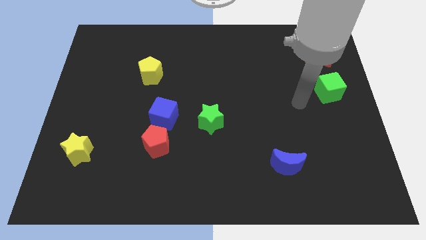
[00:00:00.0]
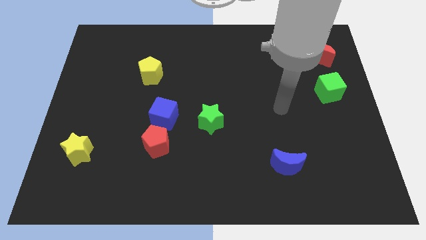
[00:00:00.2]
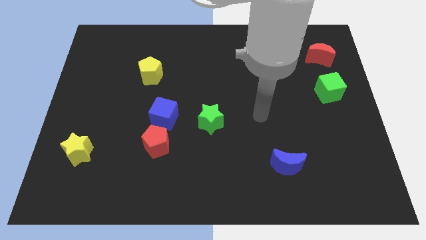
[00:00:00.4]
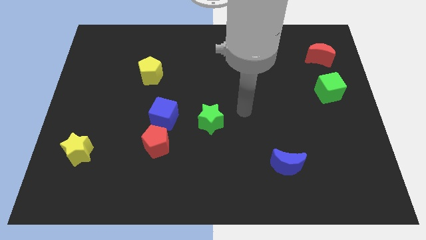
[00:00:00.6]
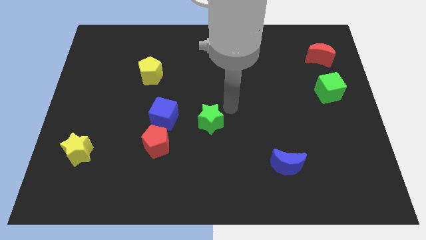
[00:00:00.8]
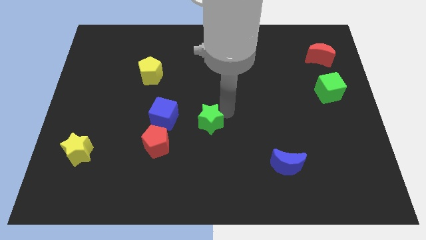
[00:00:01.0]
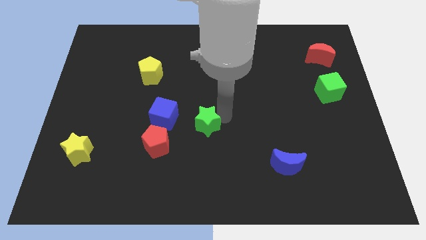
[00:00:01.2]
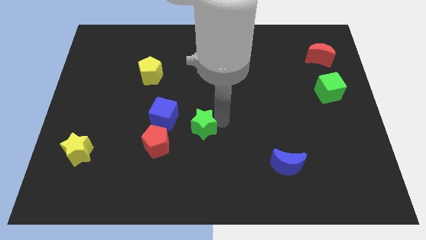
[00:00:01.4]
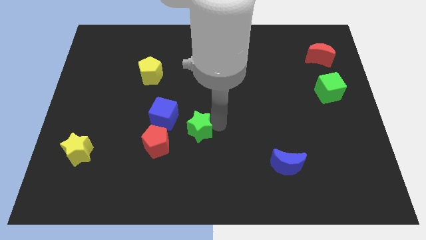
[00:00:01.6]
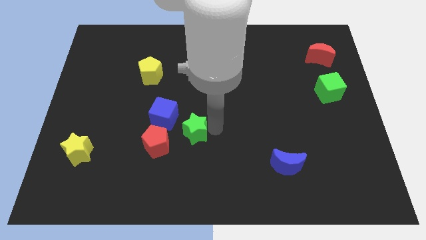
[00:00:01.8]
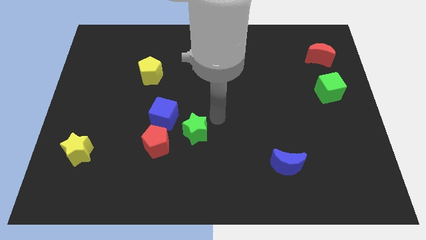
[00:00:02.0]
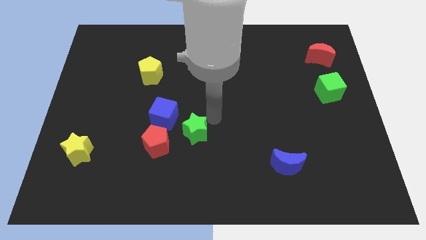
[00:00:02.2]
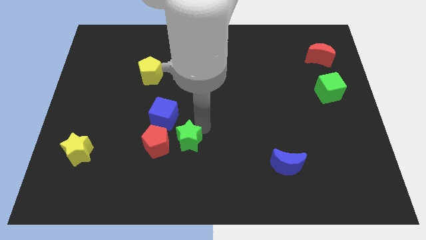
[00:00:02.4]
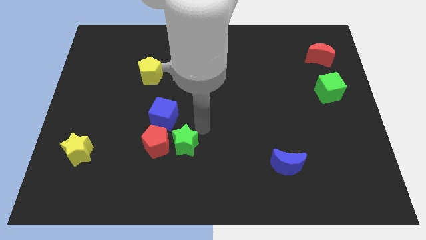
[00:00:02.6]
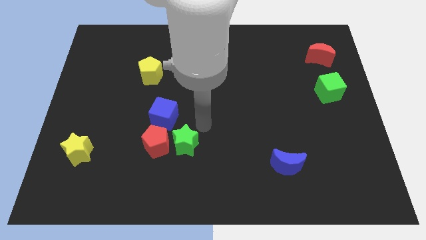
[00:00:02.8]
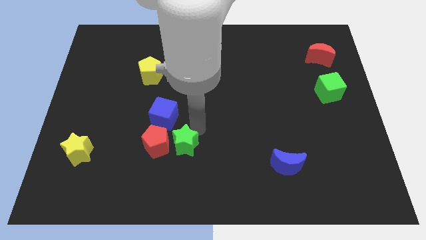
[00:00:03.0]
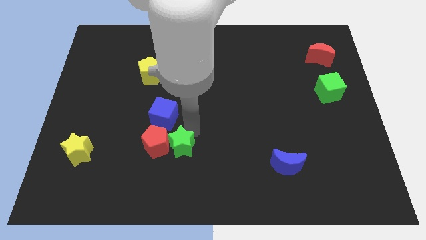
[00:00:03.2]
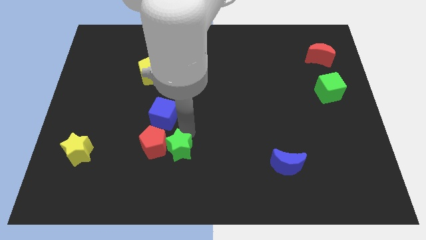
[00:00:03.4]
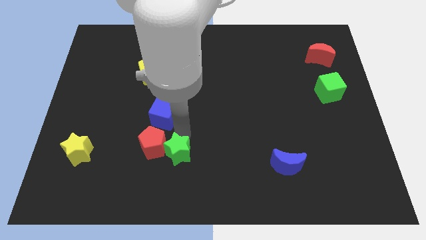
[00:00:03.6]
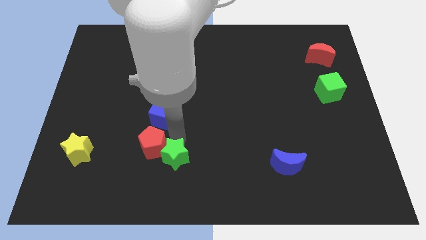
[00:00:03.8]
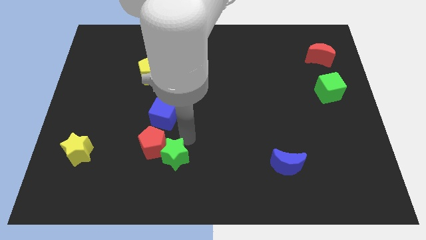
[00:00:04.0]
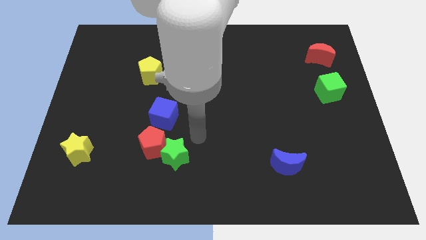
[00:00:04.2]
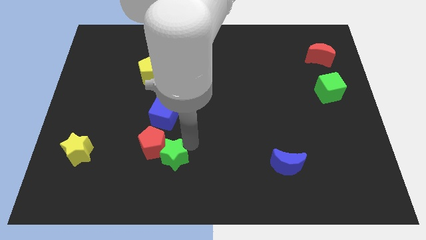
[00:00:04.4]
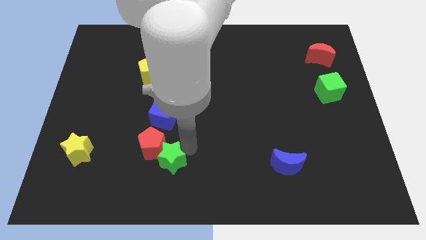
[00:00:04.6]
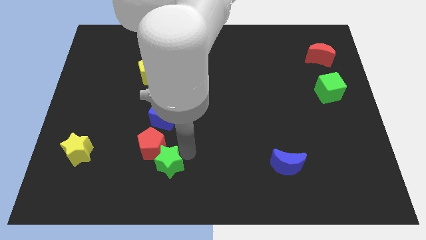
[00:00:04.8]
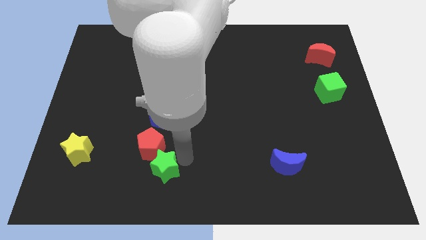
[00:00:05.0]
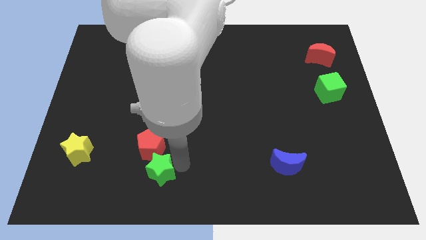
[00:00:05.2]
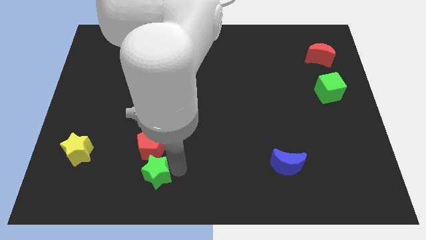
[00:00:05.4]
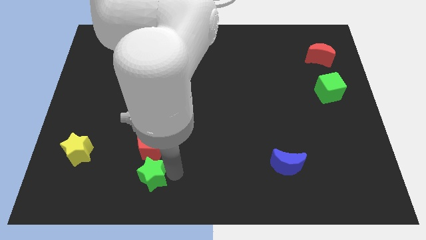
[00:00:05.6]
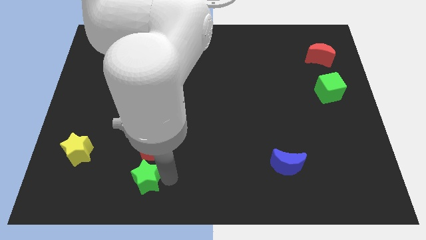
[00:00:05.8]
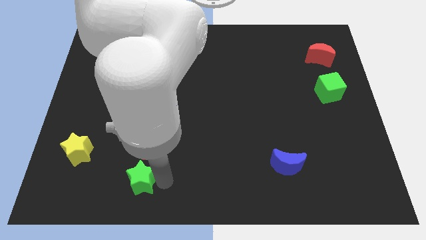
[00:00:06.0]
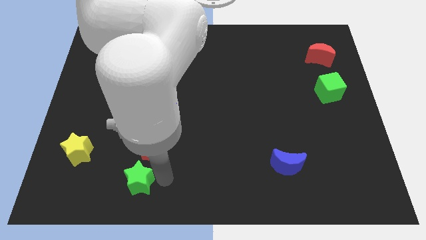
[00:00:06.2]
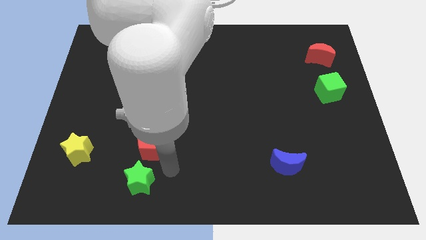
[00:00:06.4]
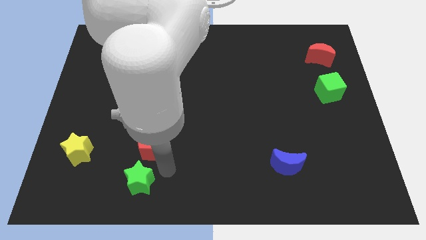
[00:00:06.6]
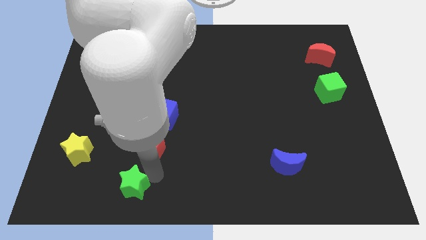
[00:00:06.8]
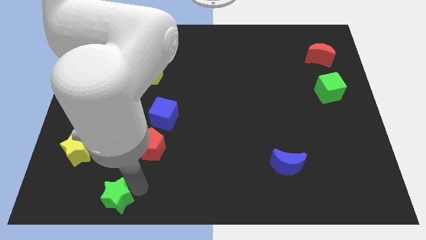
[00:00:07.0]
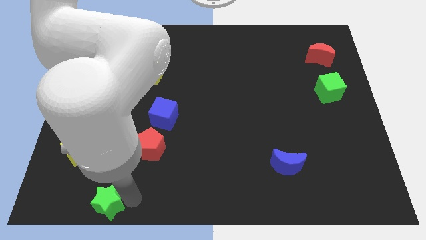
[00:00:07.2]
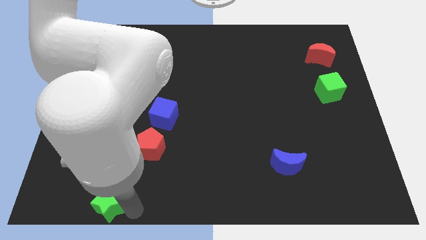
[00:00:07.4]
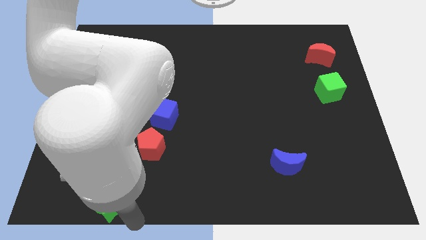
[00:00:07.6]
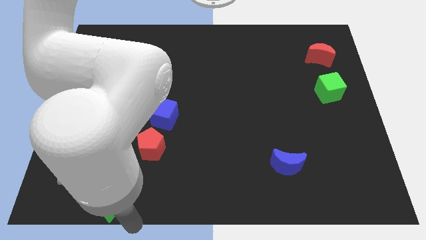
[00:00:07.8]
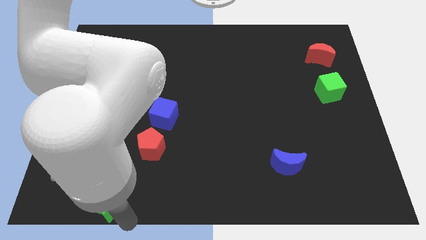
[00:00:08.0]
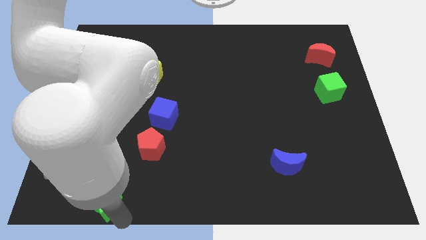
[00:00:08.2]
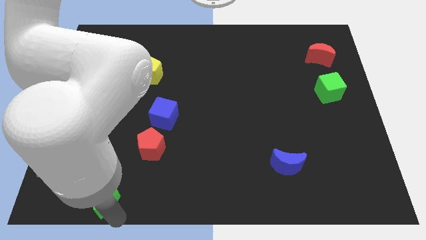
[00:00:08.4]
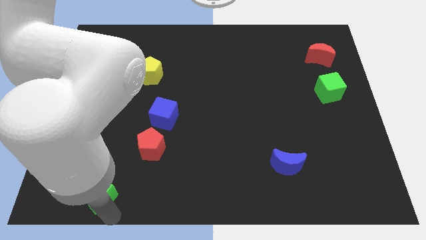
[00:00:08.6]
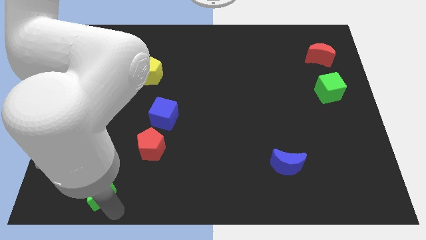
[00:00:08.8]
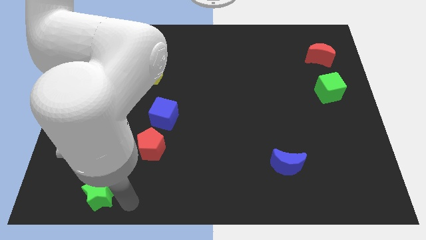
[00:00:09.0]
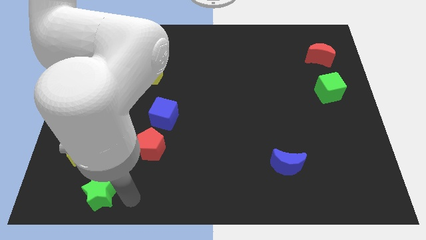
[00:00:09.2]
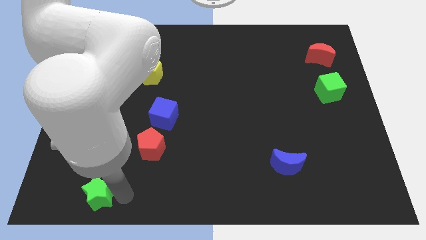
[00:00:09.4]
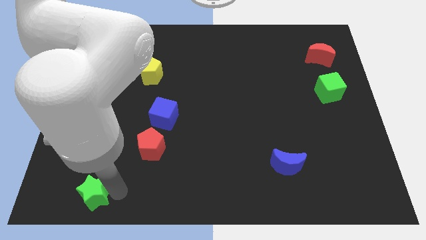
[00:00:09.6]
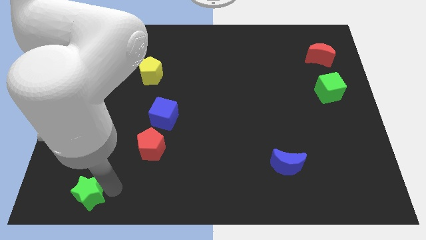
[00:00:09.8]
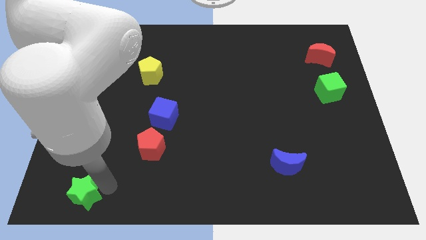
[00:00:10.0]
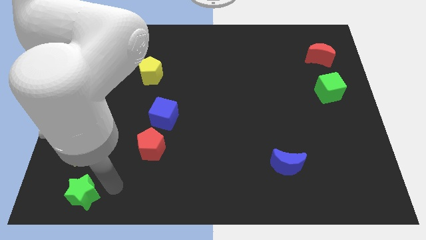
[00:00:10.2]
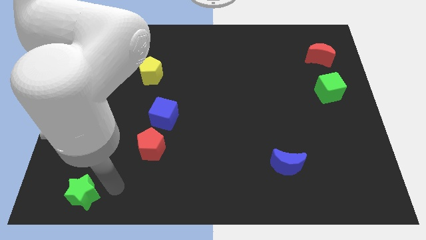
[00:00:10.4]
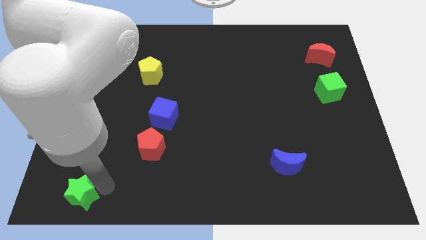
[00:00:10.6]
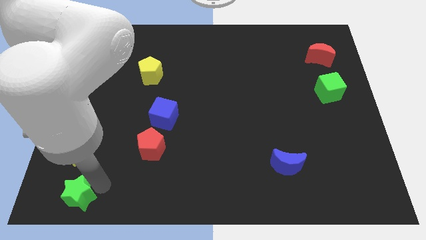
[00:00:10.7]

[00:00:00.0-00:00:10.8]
push the green star to the bottom left corner
